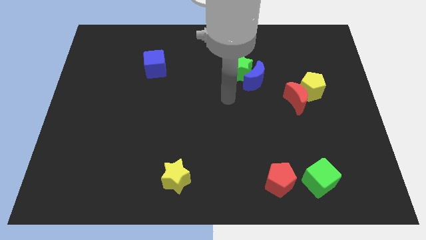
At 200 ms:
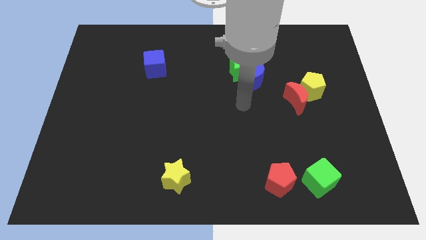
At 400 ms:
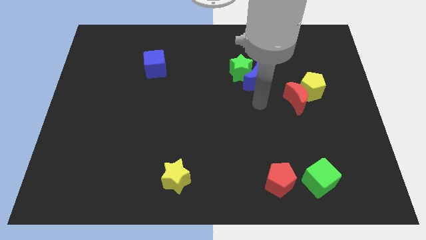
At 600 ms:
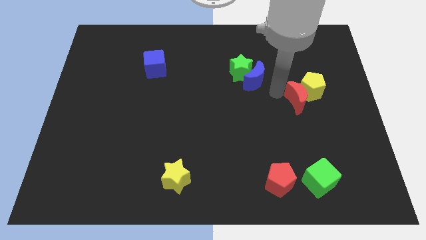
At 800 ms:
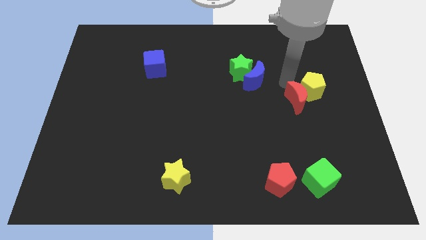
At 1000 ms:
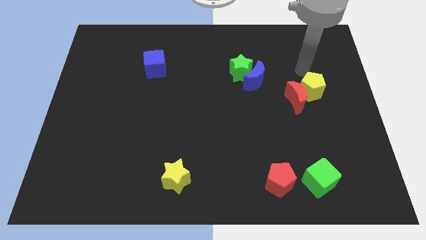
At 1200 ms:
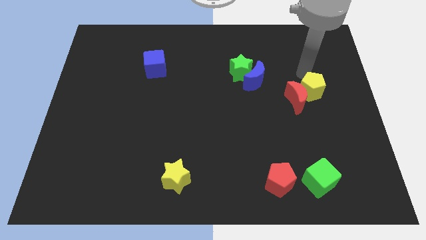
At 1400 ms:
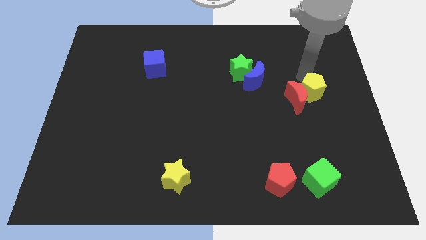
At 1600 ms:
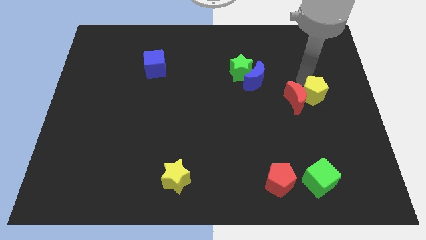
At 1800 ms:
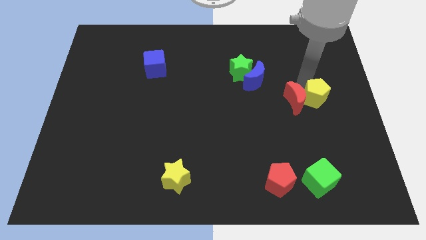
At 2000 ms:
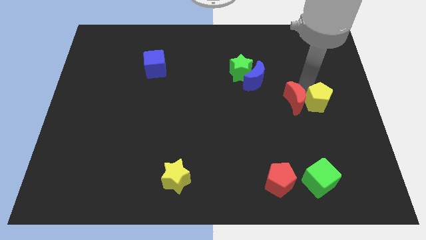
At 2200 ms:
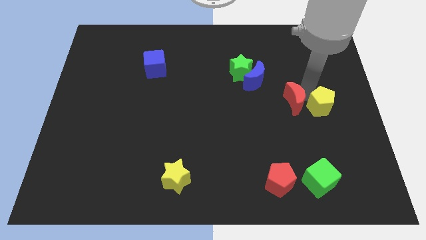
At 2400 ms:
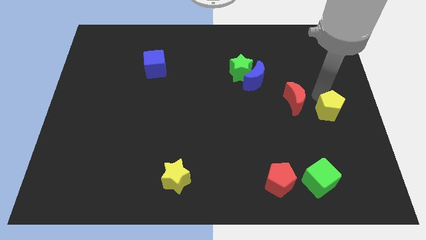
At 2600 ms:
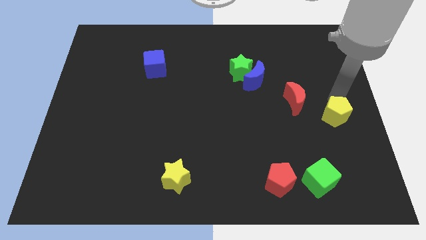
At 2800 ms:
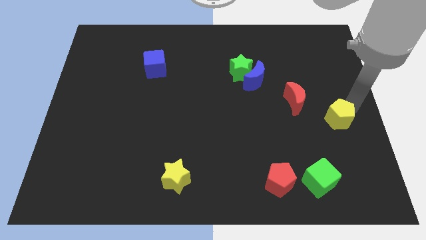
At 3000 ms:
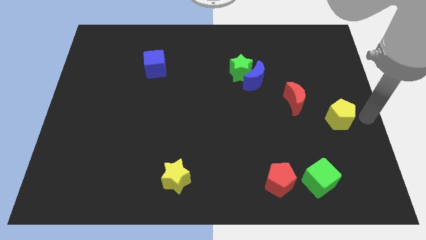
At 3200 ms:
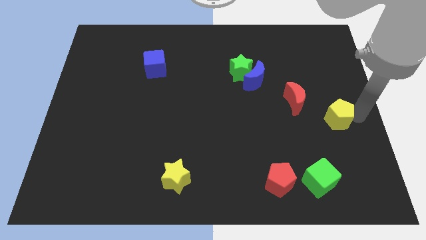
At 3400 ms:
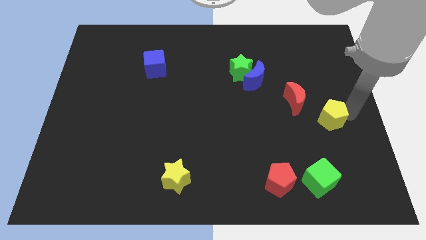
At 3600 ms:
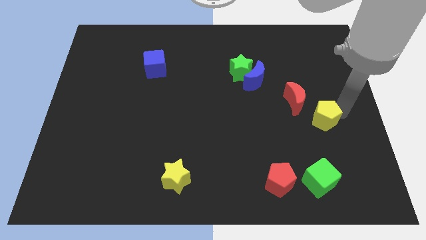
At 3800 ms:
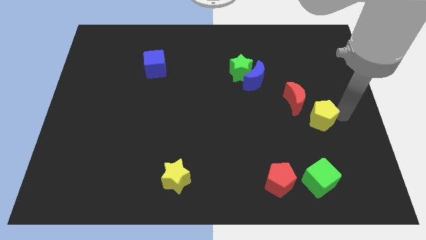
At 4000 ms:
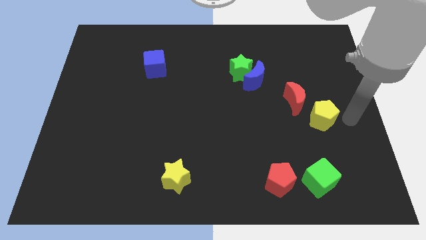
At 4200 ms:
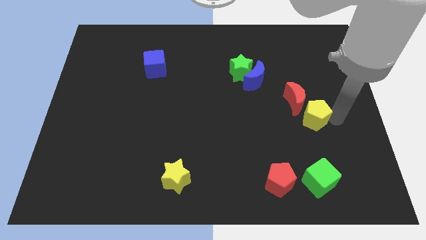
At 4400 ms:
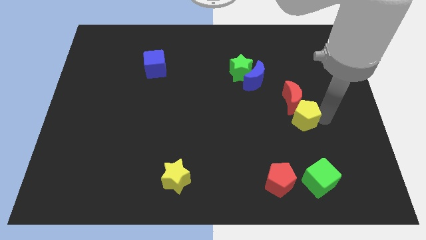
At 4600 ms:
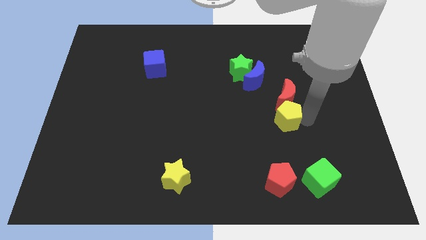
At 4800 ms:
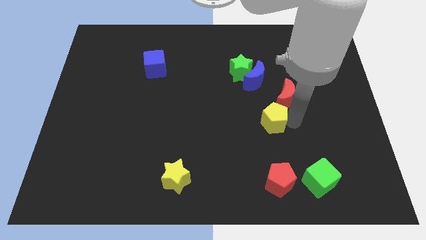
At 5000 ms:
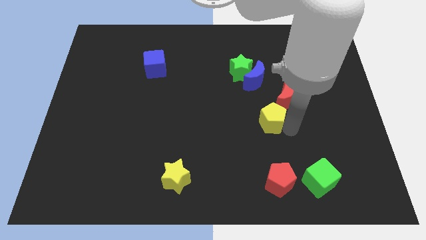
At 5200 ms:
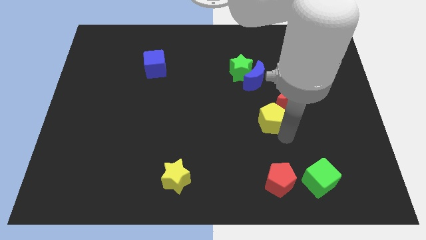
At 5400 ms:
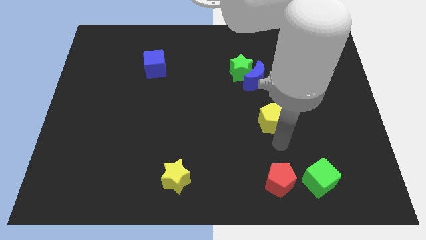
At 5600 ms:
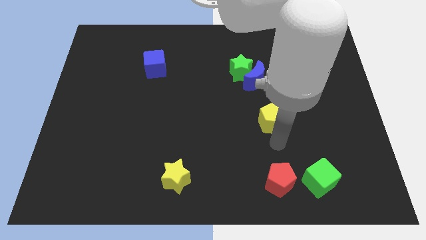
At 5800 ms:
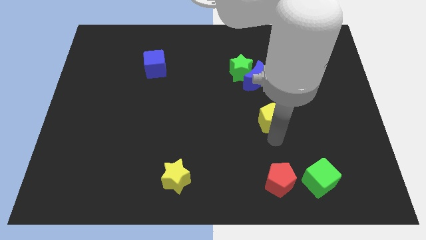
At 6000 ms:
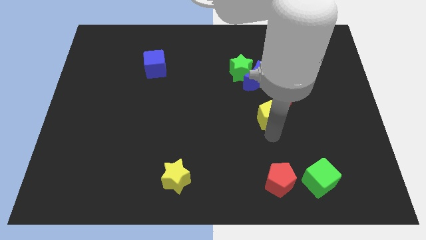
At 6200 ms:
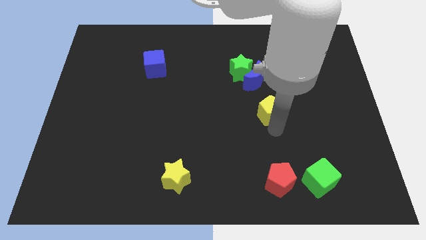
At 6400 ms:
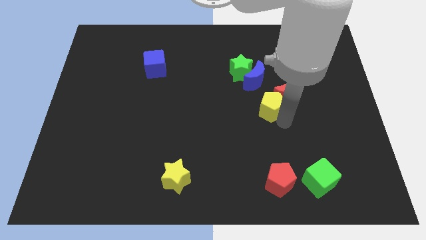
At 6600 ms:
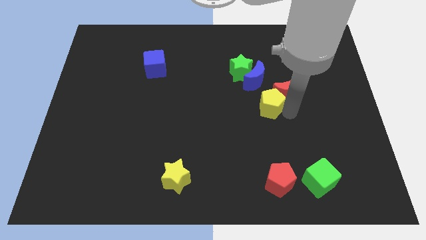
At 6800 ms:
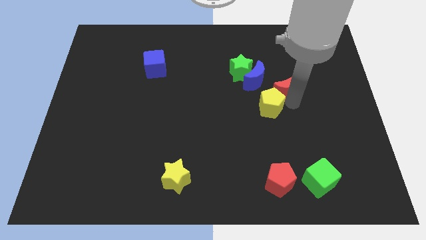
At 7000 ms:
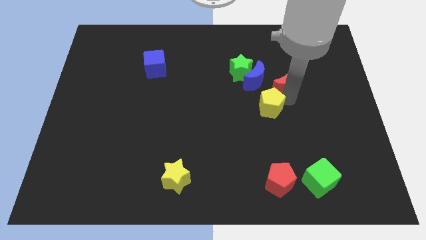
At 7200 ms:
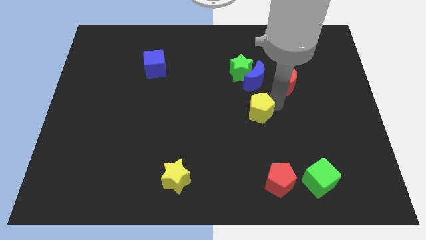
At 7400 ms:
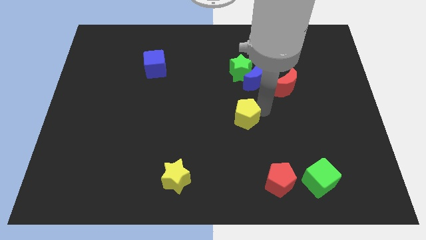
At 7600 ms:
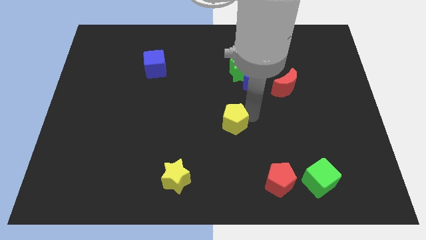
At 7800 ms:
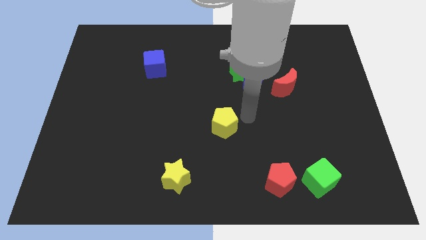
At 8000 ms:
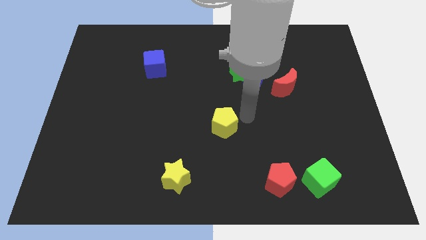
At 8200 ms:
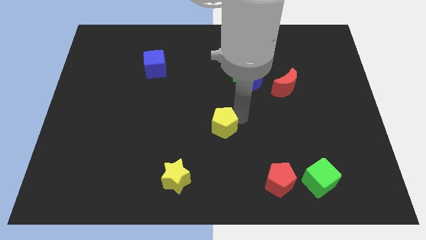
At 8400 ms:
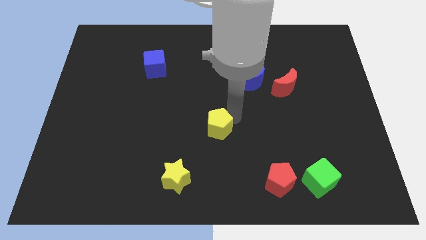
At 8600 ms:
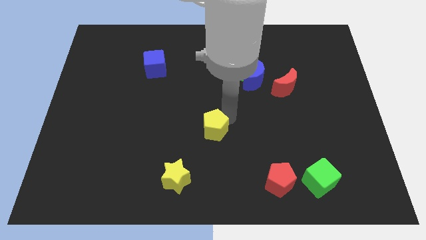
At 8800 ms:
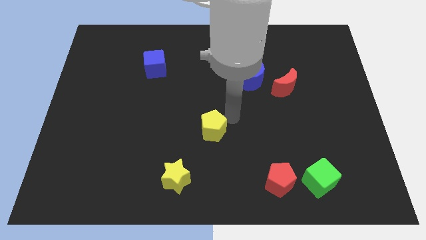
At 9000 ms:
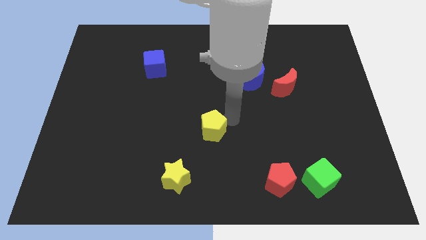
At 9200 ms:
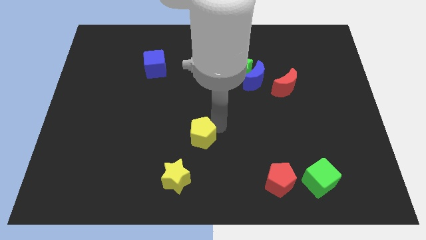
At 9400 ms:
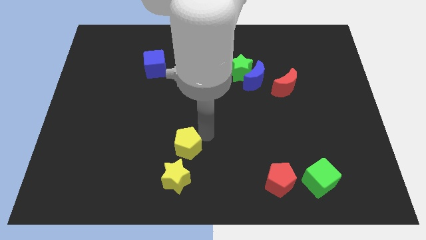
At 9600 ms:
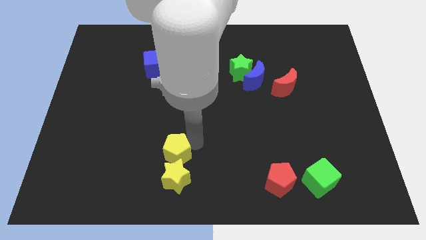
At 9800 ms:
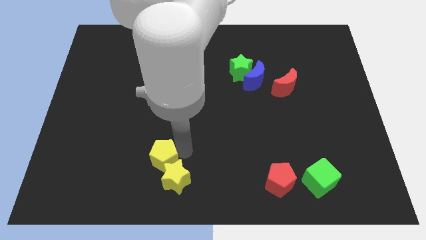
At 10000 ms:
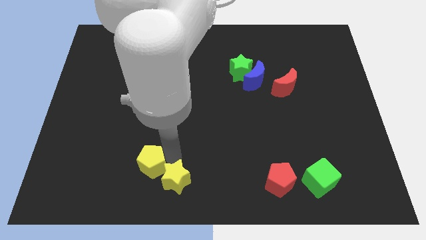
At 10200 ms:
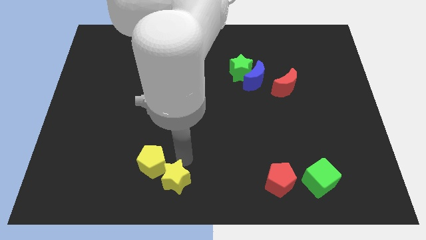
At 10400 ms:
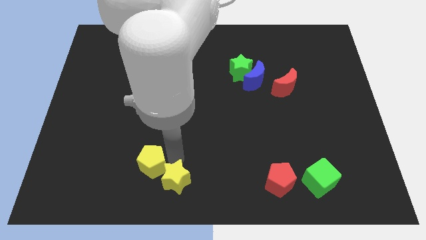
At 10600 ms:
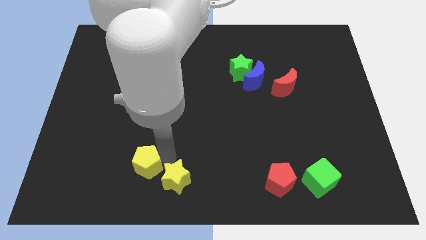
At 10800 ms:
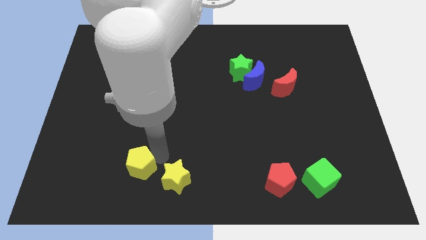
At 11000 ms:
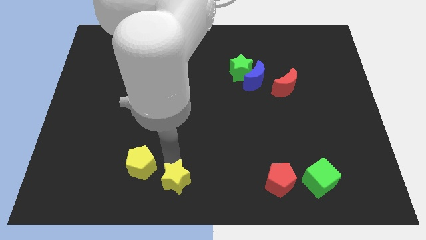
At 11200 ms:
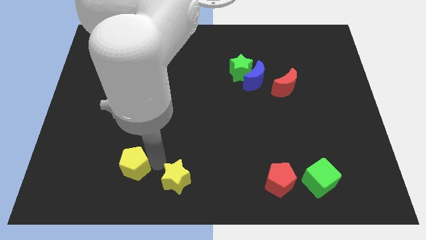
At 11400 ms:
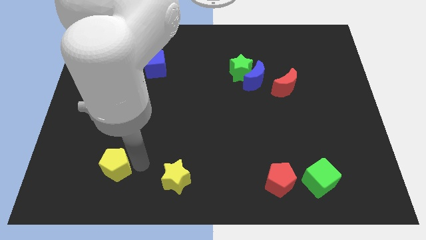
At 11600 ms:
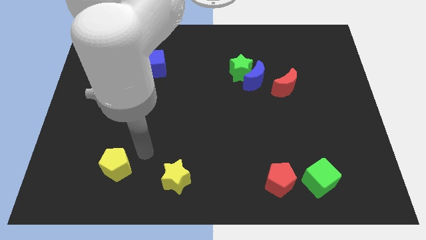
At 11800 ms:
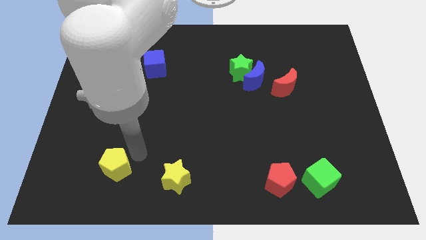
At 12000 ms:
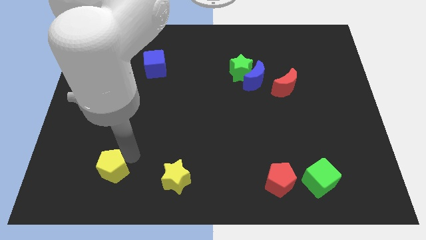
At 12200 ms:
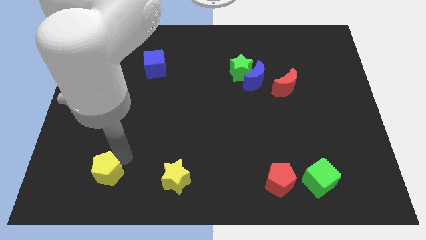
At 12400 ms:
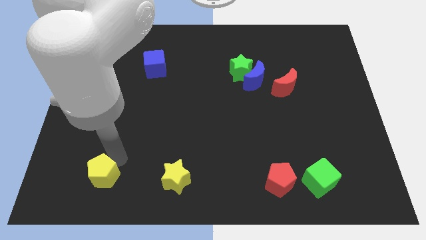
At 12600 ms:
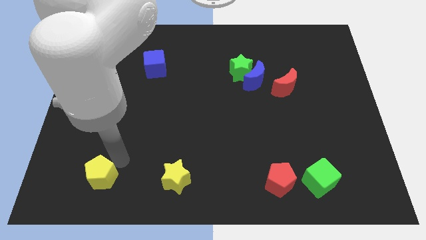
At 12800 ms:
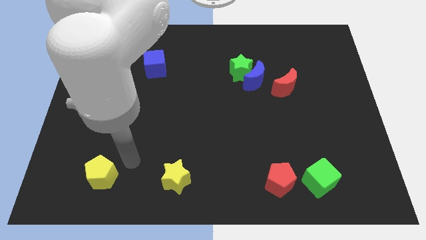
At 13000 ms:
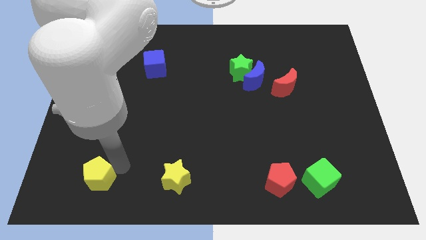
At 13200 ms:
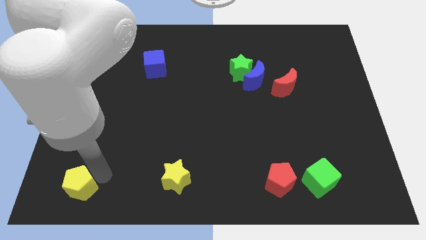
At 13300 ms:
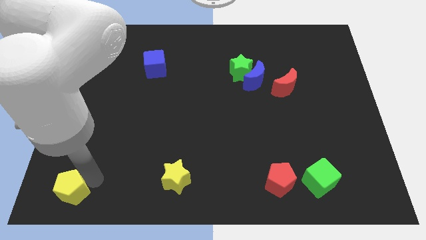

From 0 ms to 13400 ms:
put the yellow pentagon to the bottom left
